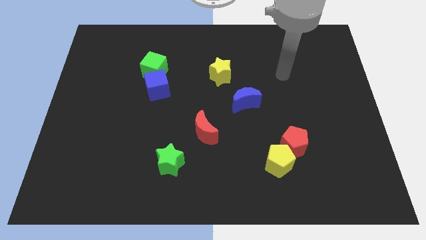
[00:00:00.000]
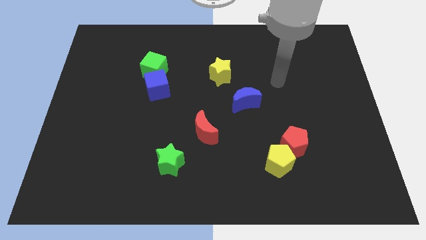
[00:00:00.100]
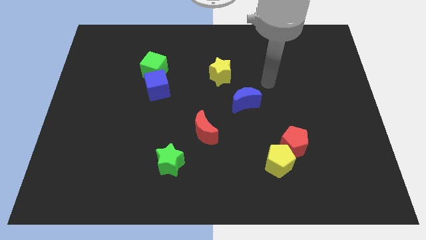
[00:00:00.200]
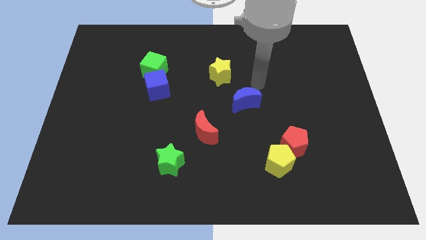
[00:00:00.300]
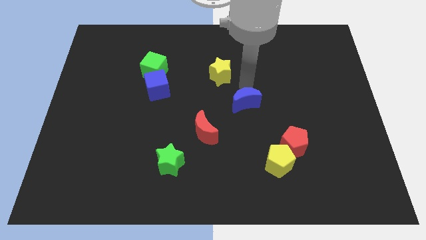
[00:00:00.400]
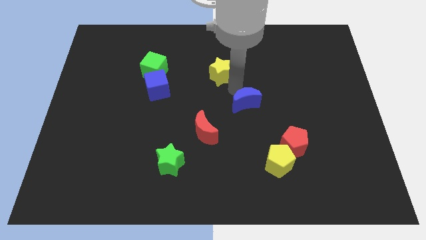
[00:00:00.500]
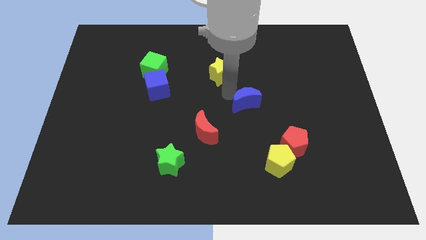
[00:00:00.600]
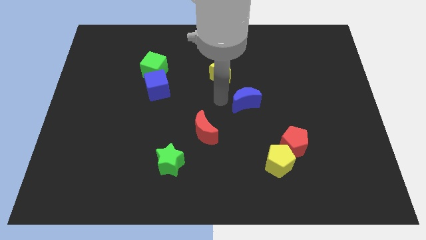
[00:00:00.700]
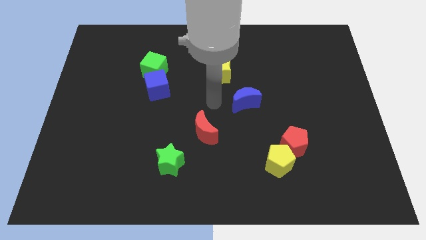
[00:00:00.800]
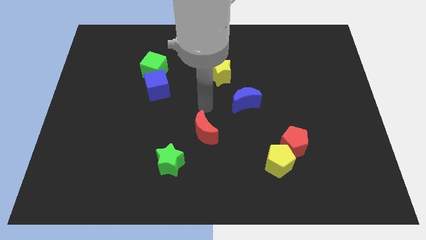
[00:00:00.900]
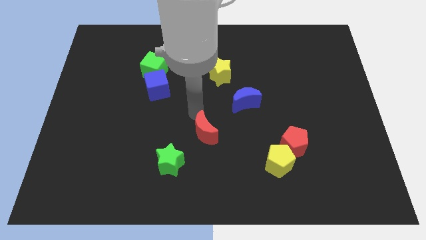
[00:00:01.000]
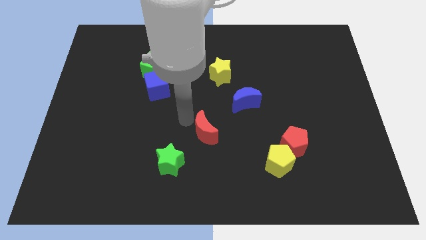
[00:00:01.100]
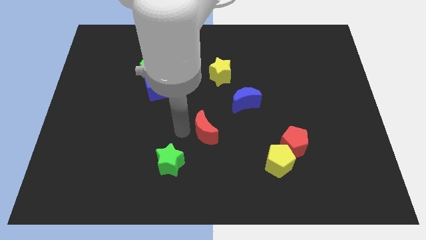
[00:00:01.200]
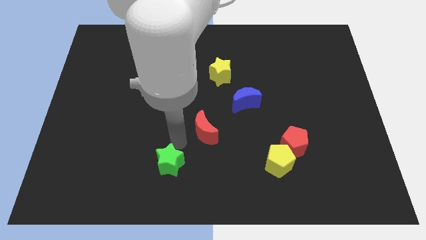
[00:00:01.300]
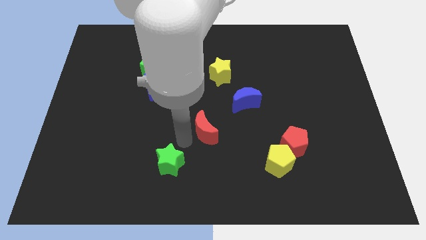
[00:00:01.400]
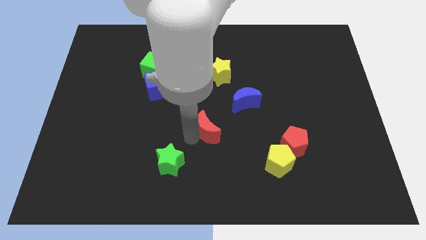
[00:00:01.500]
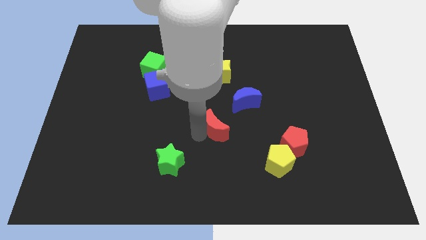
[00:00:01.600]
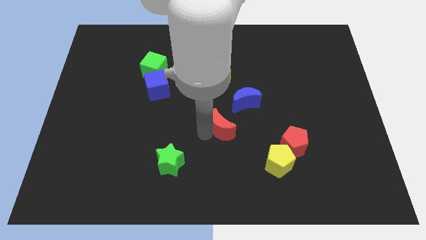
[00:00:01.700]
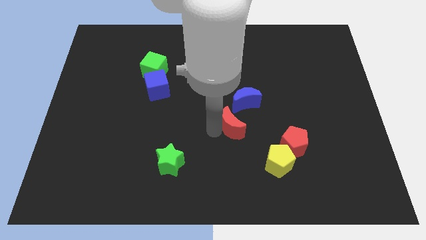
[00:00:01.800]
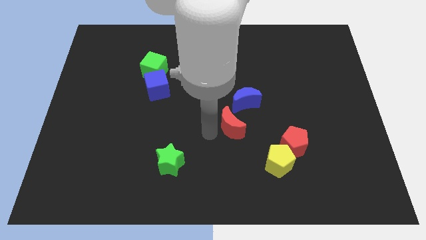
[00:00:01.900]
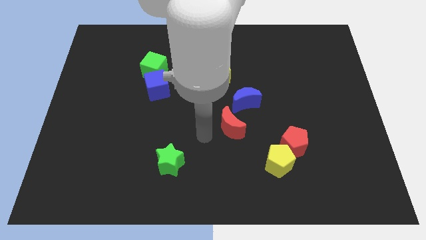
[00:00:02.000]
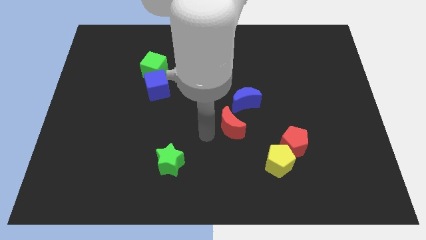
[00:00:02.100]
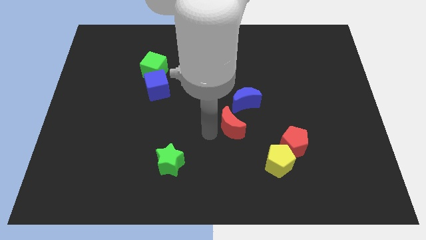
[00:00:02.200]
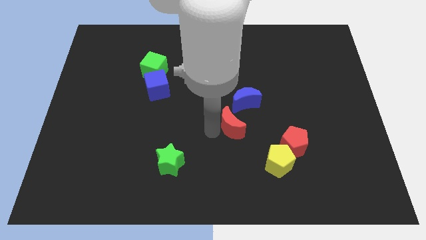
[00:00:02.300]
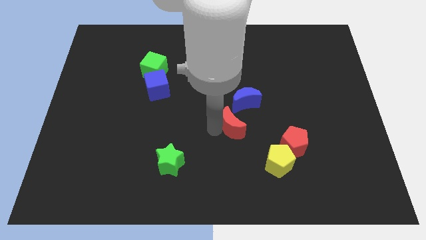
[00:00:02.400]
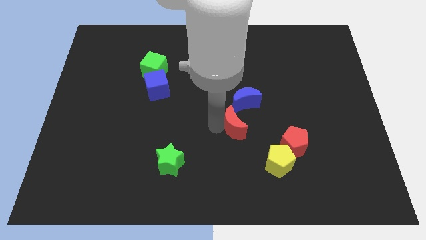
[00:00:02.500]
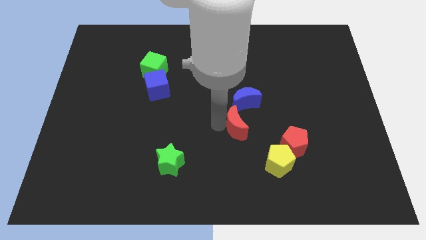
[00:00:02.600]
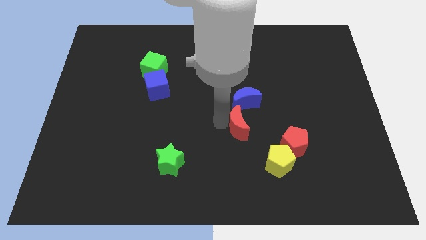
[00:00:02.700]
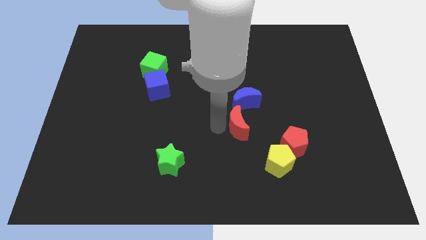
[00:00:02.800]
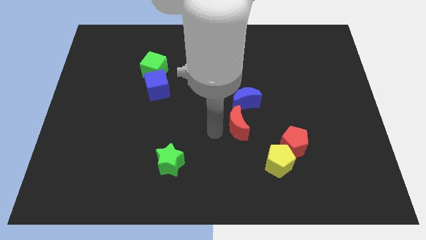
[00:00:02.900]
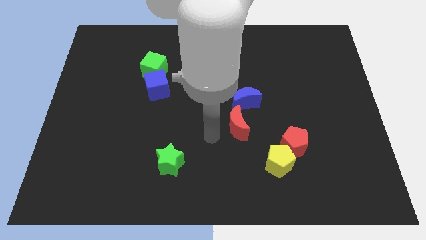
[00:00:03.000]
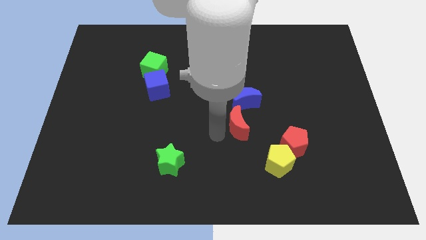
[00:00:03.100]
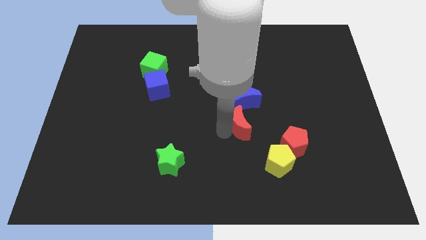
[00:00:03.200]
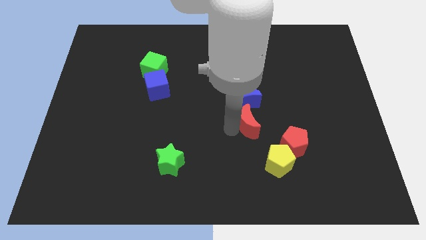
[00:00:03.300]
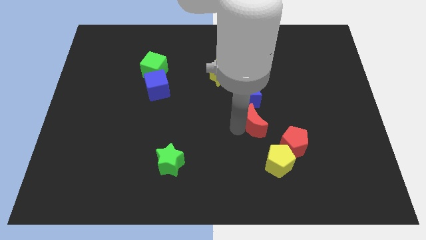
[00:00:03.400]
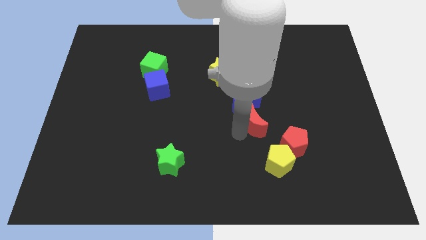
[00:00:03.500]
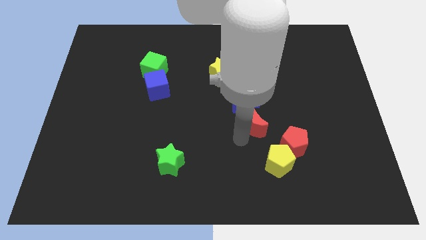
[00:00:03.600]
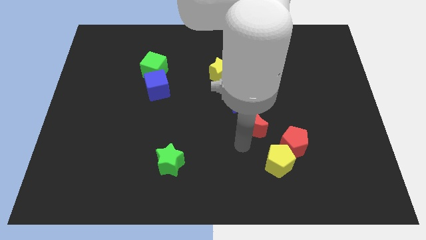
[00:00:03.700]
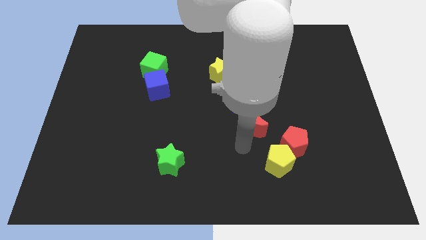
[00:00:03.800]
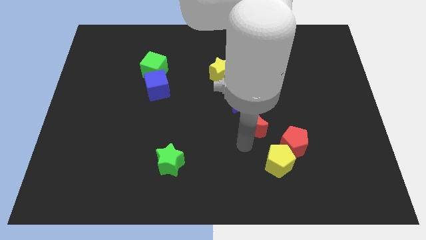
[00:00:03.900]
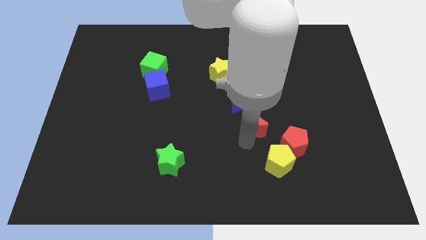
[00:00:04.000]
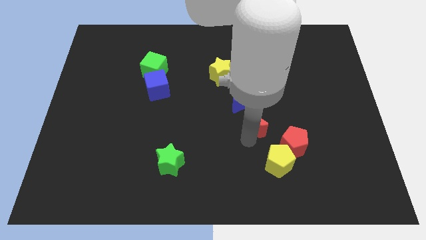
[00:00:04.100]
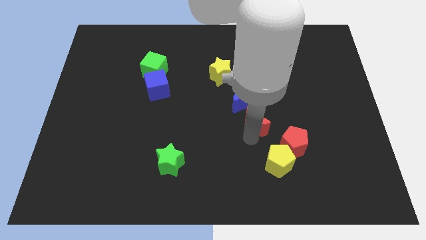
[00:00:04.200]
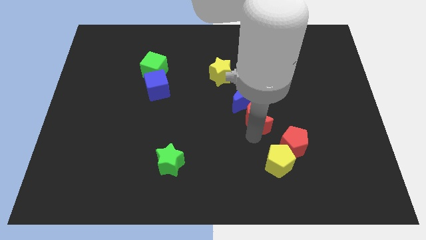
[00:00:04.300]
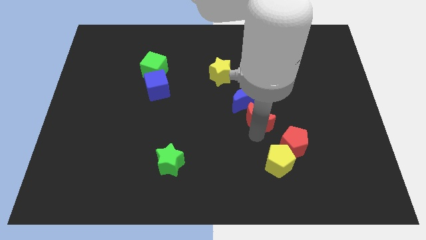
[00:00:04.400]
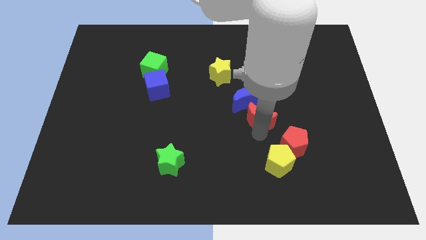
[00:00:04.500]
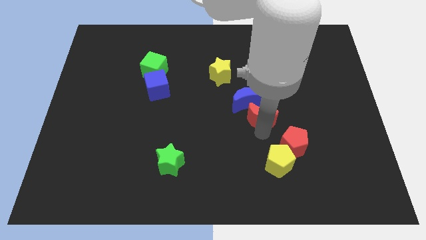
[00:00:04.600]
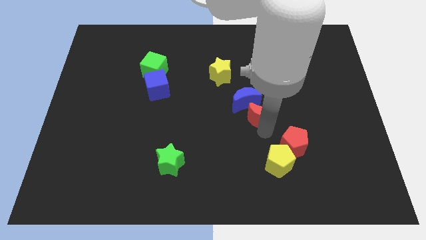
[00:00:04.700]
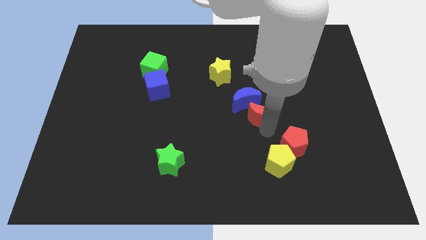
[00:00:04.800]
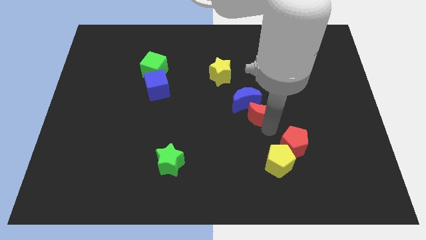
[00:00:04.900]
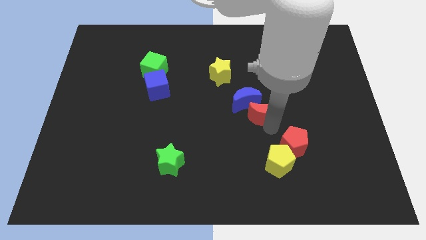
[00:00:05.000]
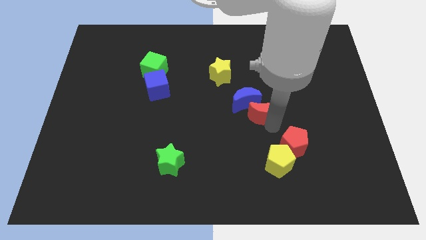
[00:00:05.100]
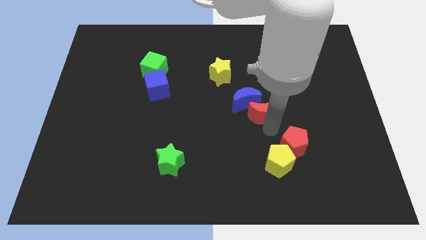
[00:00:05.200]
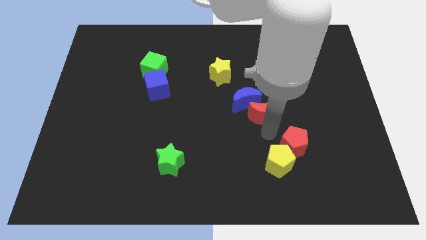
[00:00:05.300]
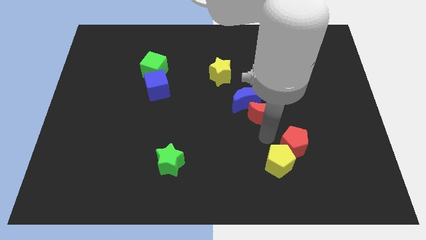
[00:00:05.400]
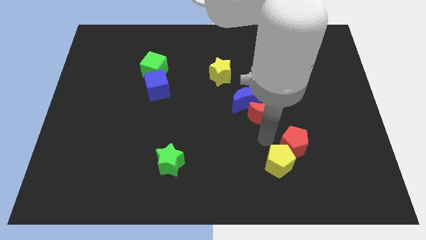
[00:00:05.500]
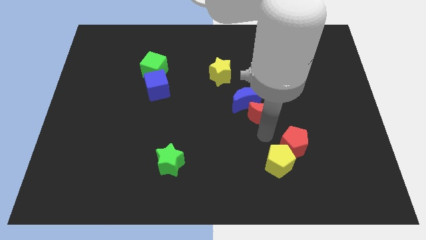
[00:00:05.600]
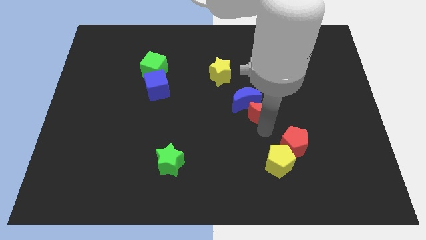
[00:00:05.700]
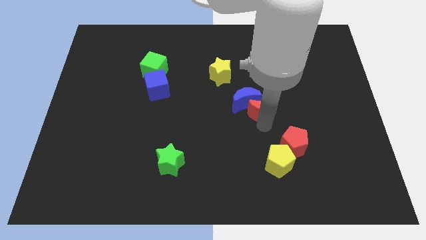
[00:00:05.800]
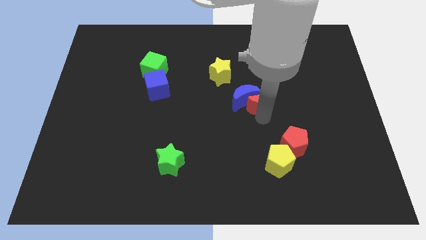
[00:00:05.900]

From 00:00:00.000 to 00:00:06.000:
move the red moon to the top right side of the blue moon
